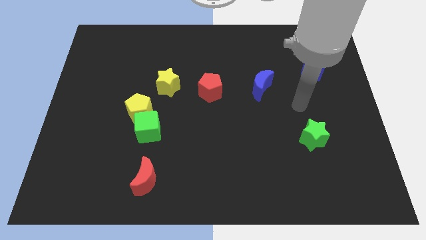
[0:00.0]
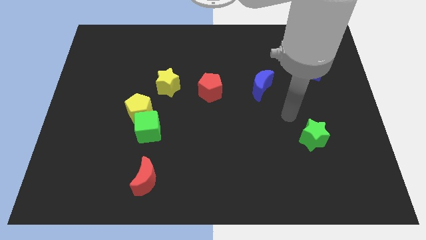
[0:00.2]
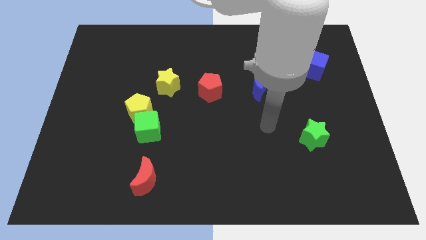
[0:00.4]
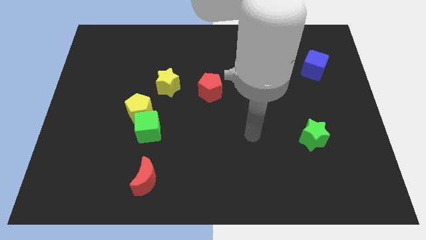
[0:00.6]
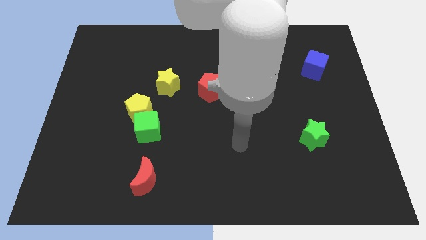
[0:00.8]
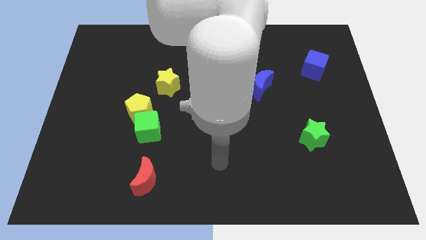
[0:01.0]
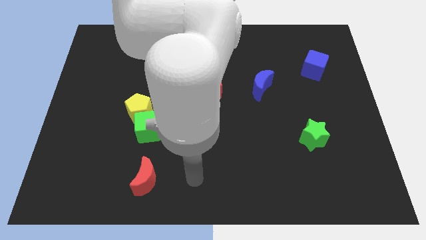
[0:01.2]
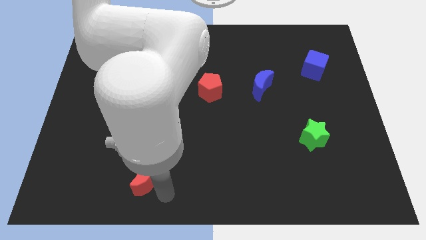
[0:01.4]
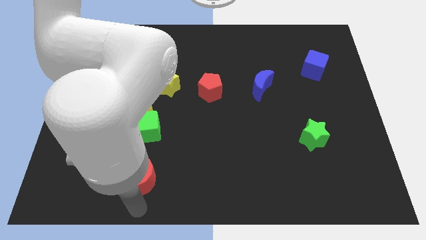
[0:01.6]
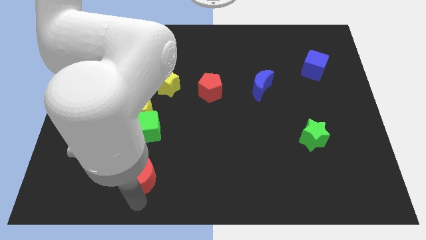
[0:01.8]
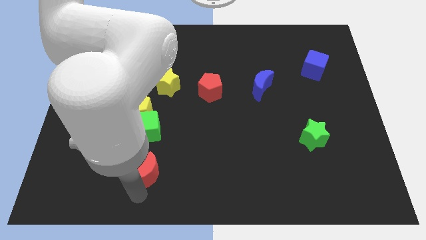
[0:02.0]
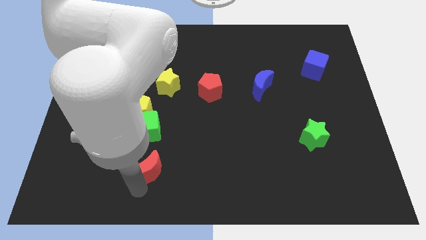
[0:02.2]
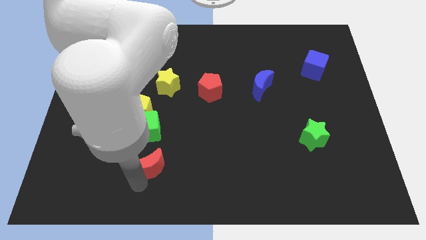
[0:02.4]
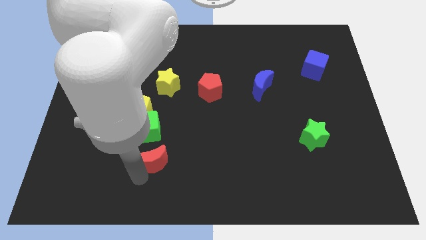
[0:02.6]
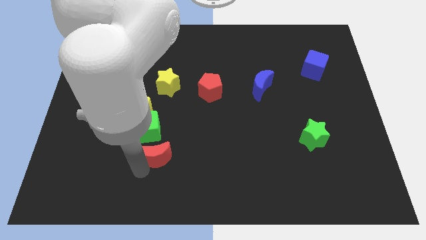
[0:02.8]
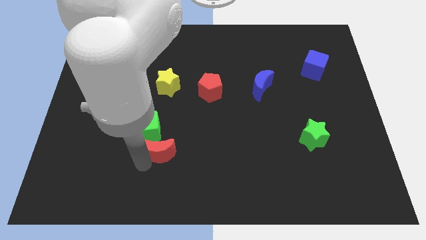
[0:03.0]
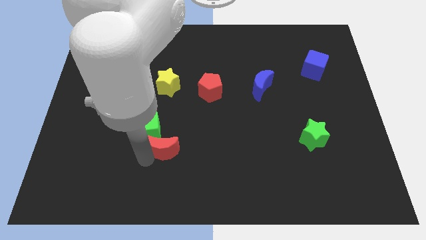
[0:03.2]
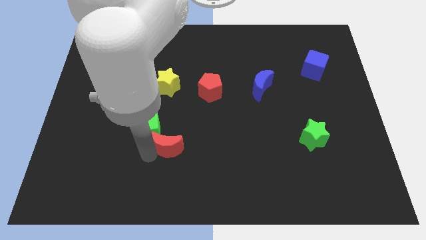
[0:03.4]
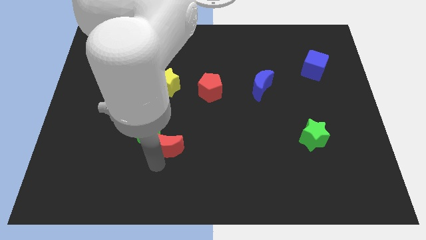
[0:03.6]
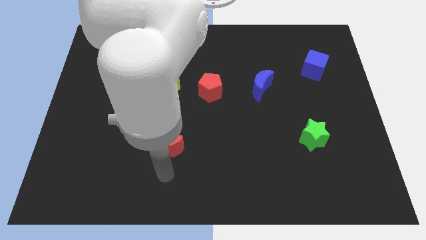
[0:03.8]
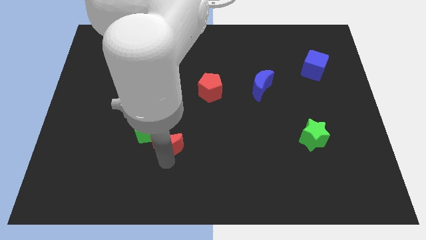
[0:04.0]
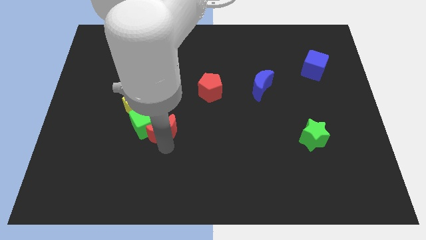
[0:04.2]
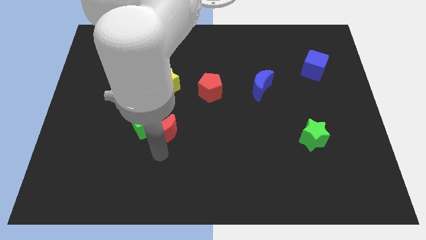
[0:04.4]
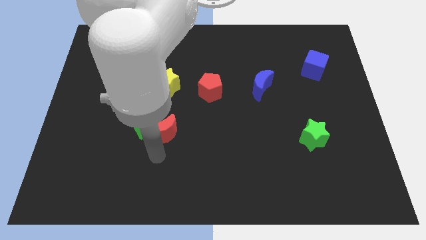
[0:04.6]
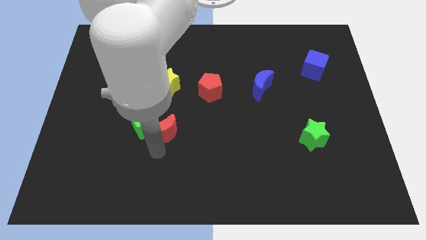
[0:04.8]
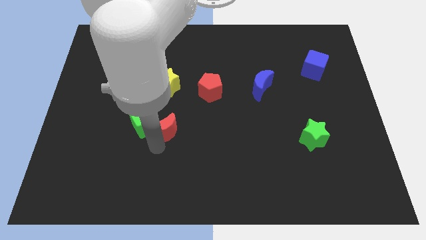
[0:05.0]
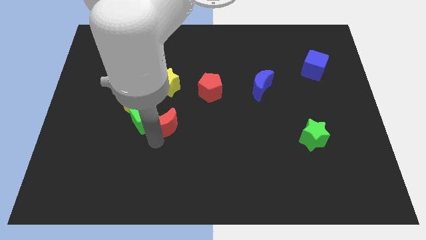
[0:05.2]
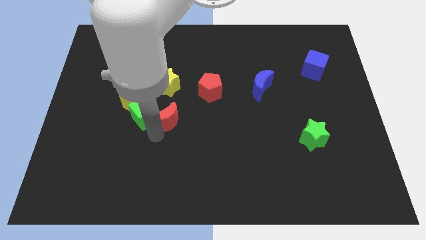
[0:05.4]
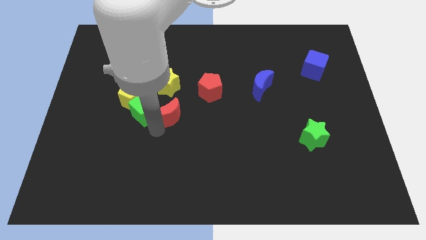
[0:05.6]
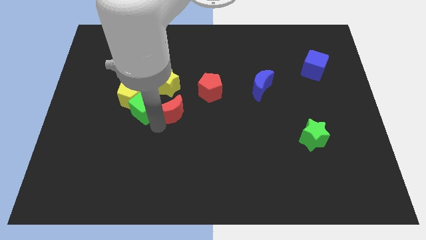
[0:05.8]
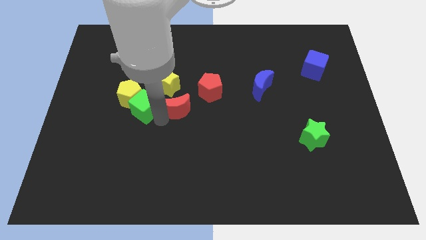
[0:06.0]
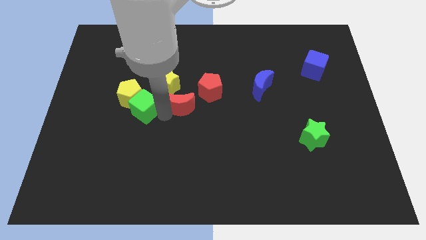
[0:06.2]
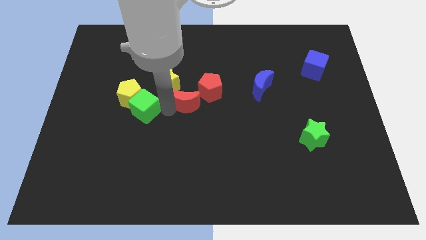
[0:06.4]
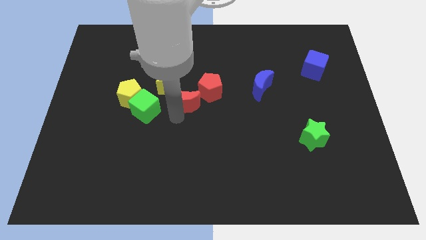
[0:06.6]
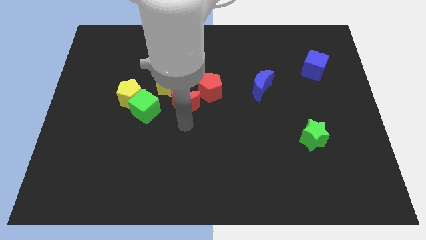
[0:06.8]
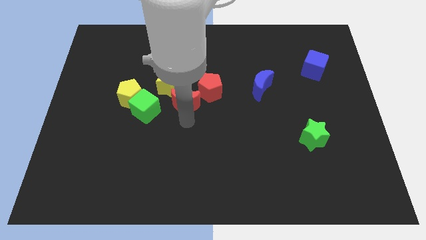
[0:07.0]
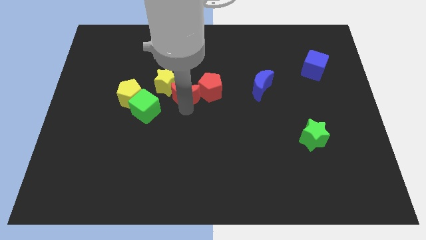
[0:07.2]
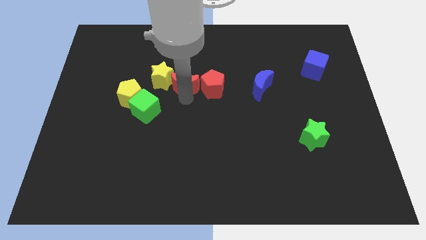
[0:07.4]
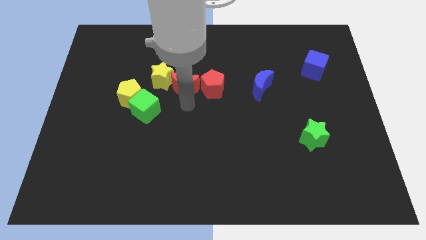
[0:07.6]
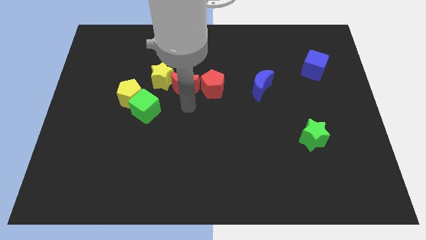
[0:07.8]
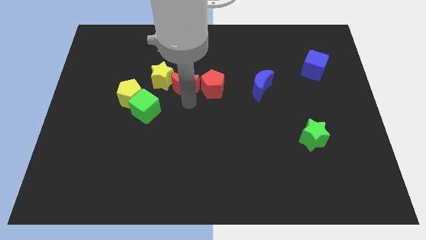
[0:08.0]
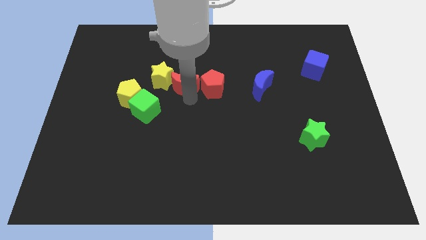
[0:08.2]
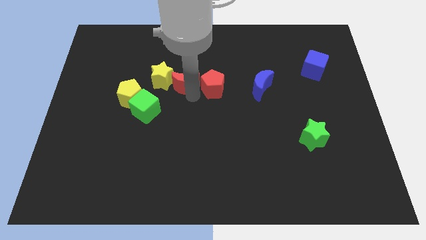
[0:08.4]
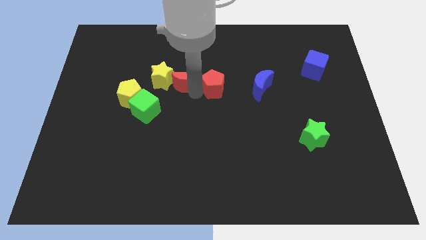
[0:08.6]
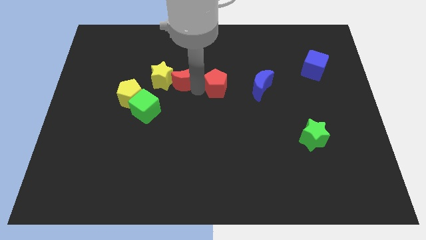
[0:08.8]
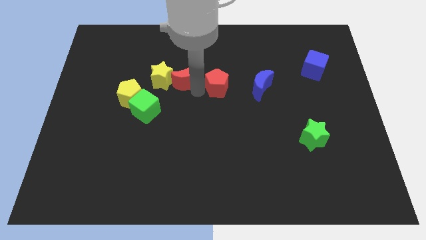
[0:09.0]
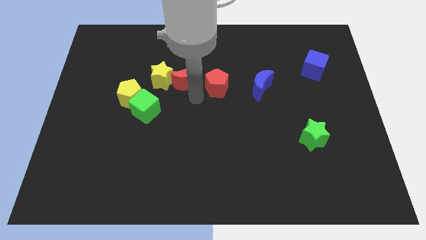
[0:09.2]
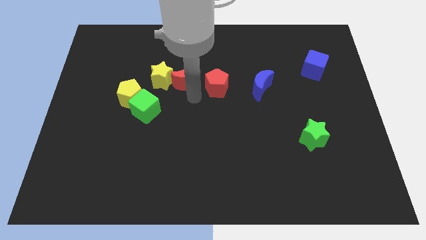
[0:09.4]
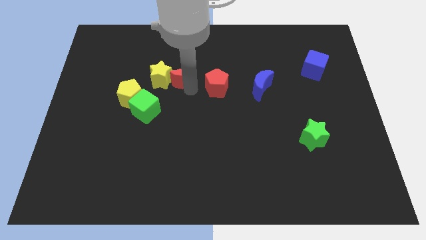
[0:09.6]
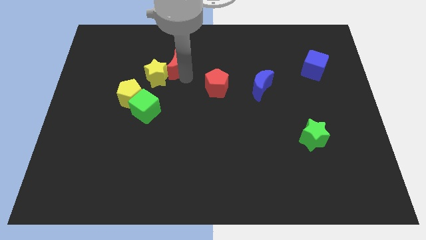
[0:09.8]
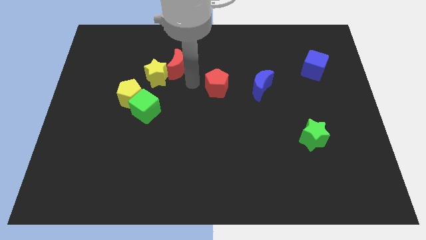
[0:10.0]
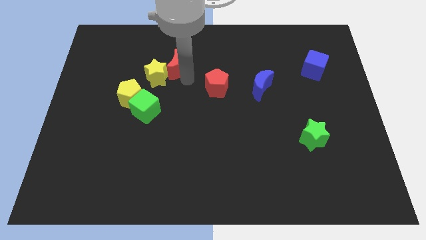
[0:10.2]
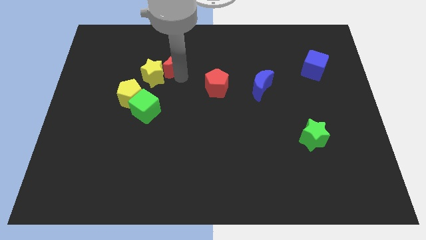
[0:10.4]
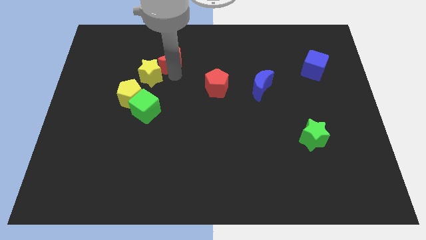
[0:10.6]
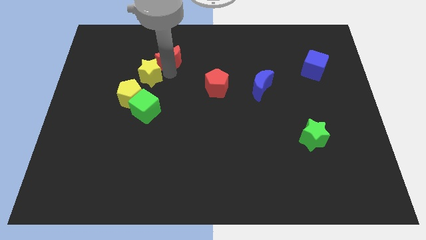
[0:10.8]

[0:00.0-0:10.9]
put the red moon above the yellow star

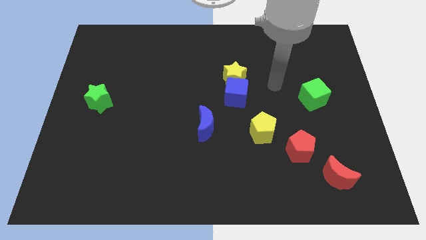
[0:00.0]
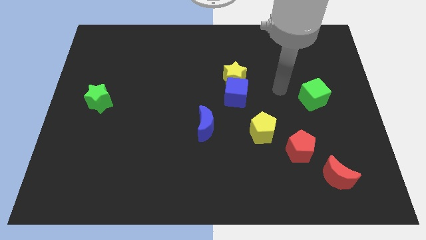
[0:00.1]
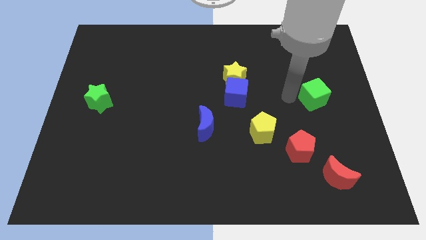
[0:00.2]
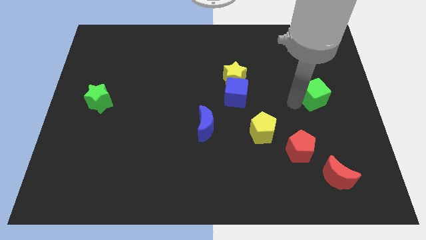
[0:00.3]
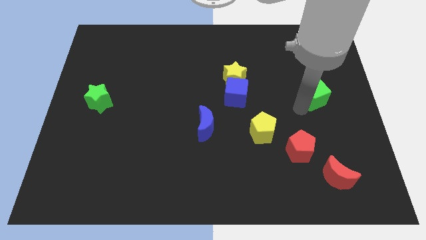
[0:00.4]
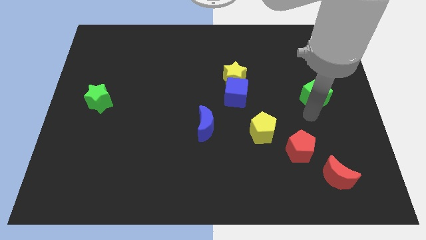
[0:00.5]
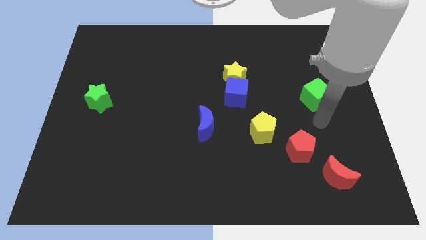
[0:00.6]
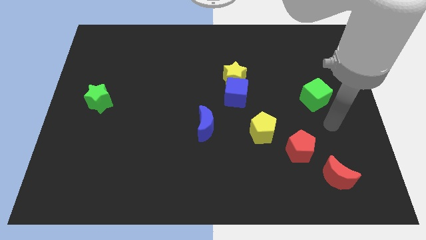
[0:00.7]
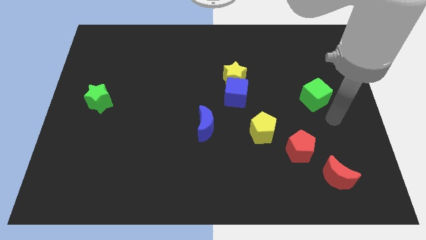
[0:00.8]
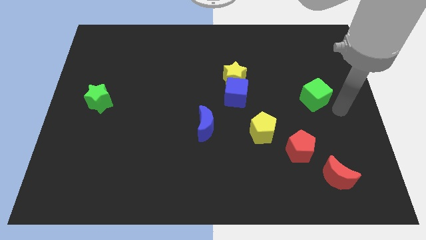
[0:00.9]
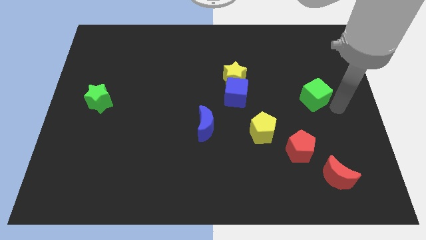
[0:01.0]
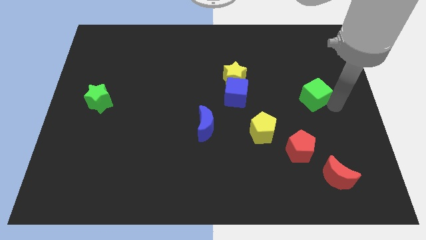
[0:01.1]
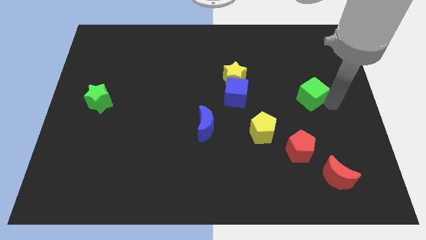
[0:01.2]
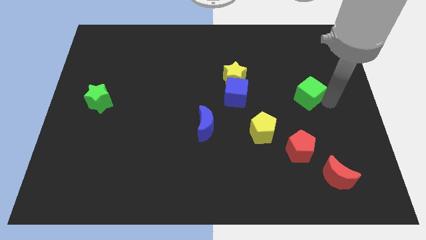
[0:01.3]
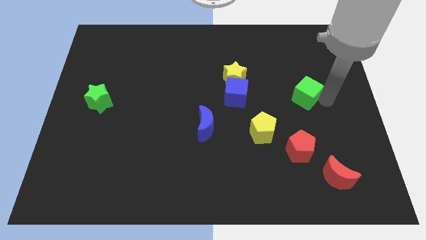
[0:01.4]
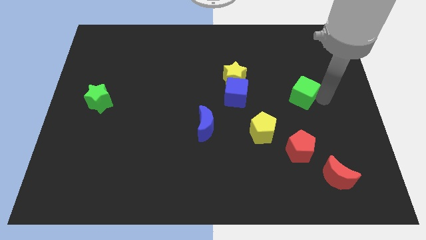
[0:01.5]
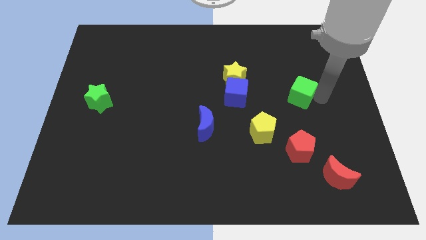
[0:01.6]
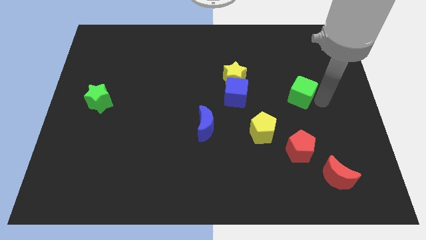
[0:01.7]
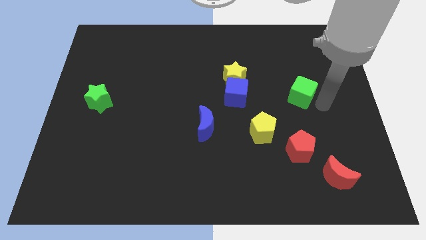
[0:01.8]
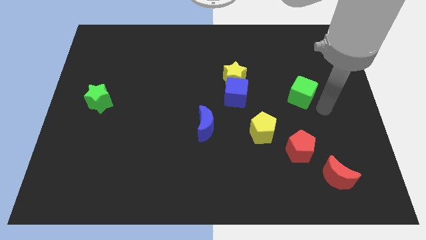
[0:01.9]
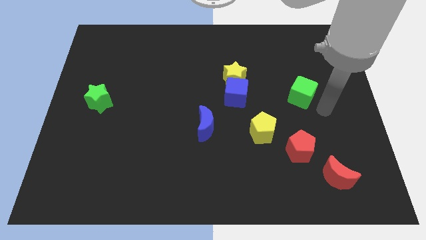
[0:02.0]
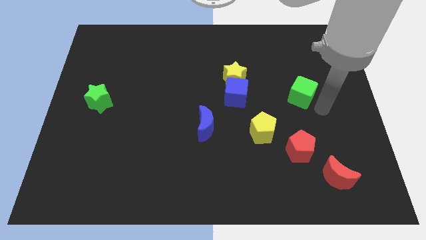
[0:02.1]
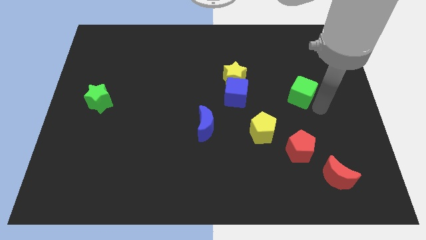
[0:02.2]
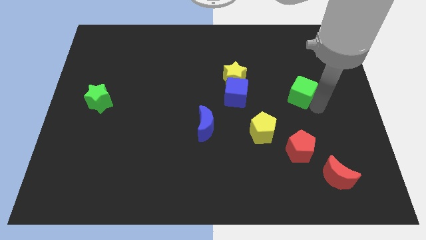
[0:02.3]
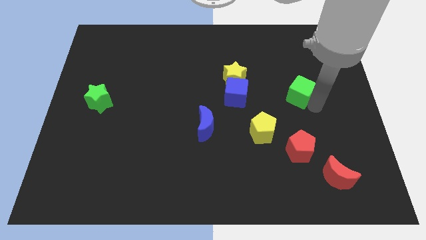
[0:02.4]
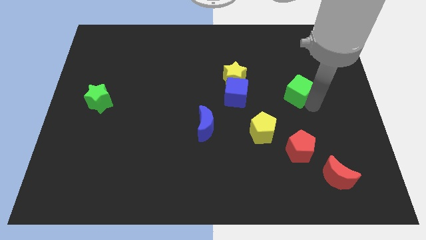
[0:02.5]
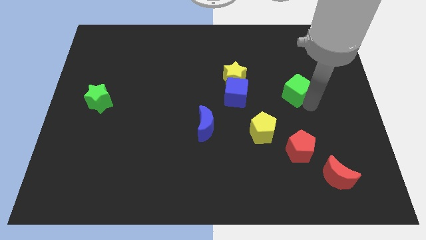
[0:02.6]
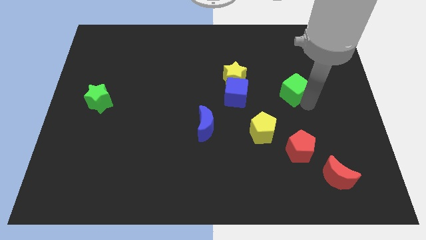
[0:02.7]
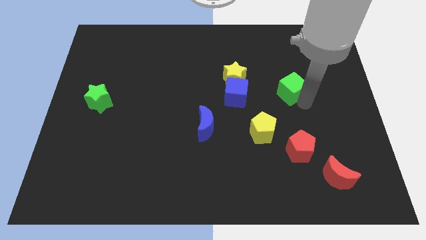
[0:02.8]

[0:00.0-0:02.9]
push the green cube just right of the yellow star
